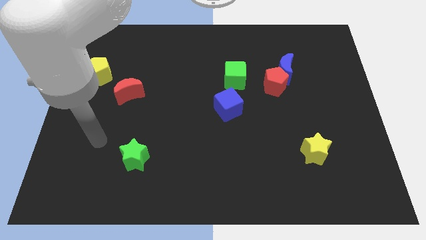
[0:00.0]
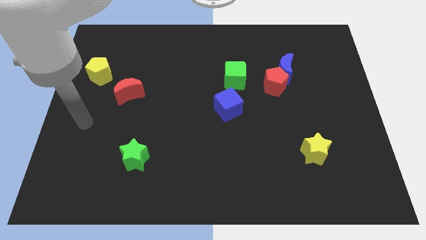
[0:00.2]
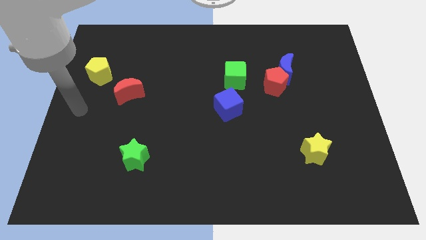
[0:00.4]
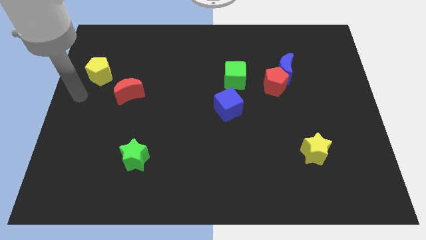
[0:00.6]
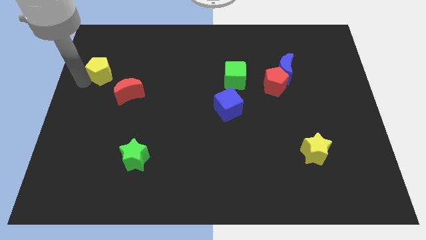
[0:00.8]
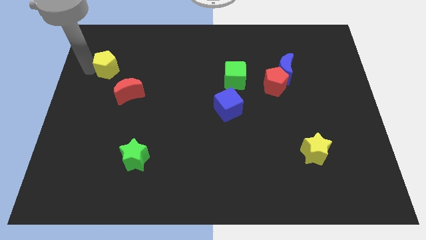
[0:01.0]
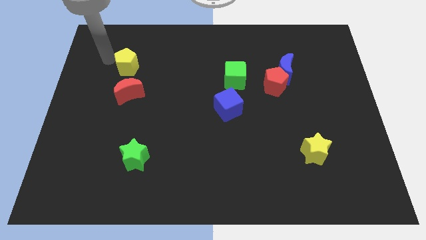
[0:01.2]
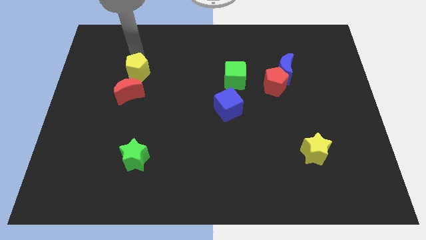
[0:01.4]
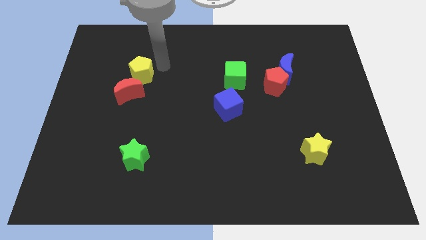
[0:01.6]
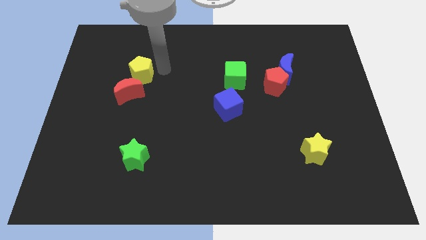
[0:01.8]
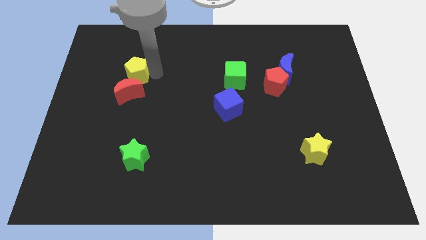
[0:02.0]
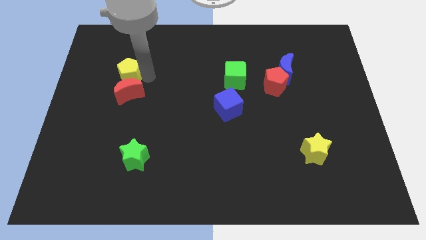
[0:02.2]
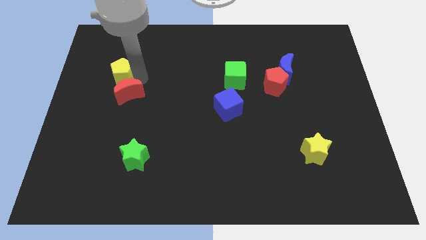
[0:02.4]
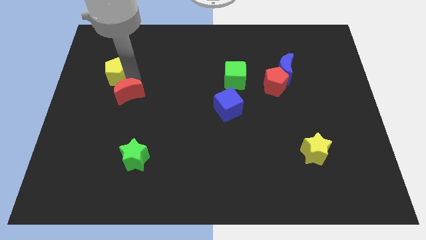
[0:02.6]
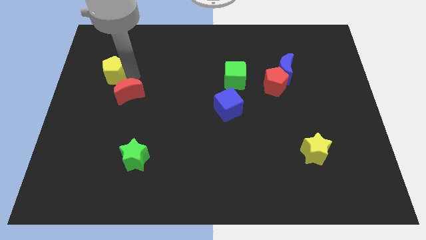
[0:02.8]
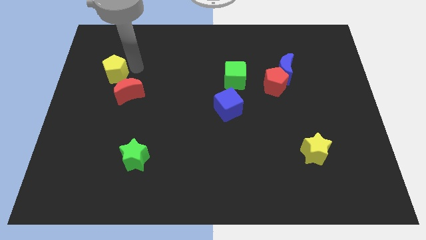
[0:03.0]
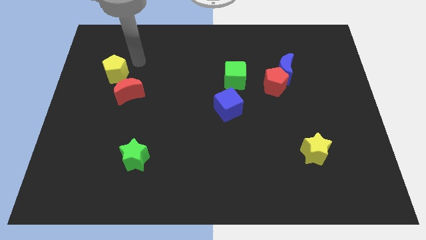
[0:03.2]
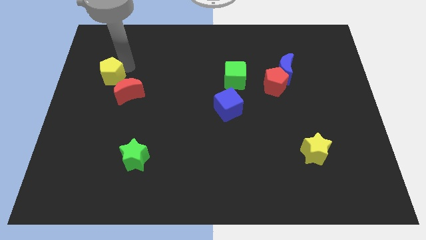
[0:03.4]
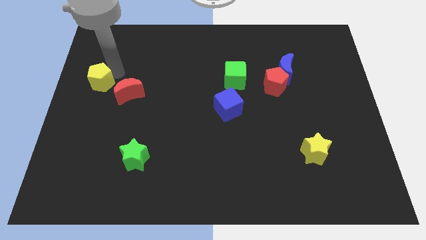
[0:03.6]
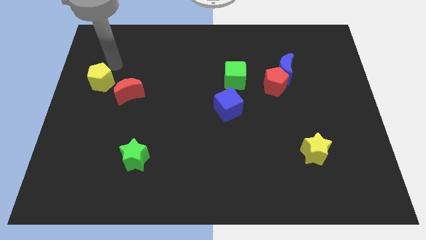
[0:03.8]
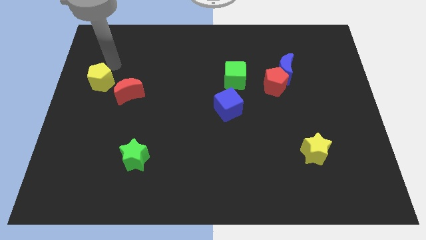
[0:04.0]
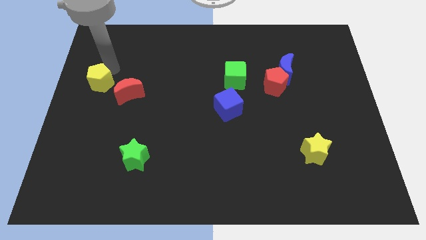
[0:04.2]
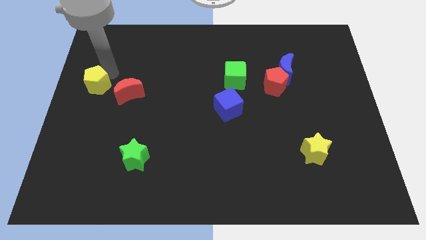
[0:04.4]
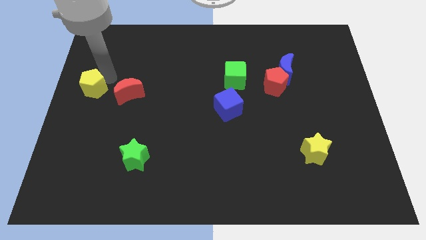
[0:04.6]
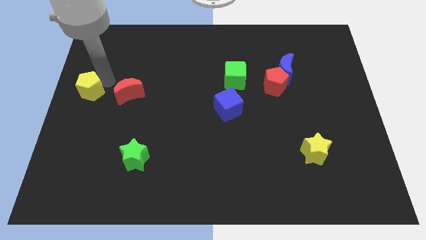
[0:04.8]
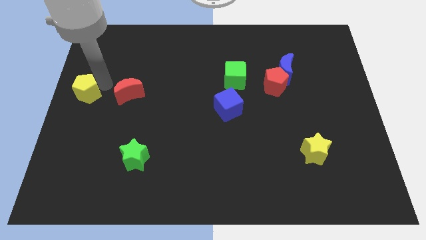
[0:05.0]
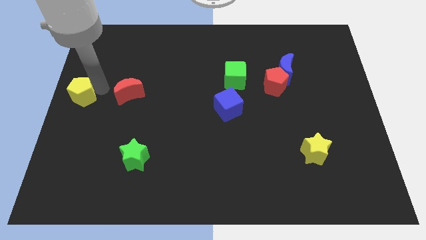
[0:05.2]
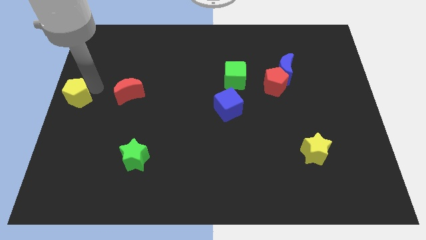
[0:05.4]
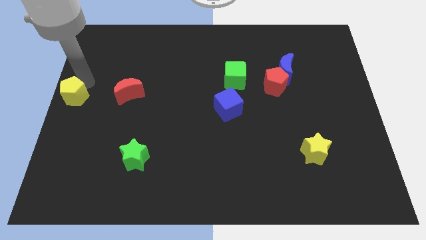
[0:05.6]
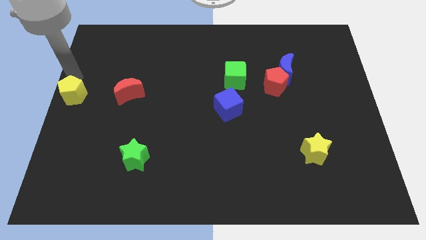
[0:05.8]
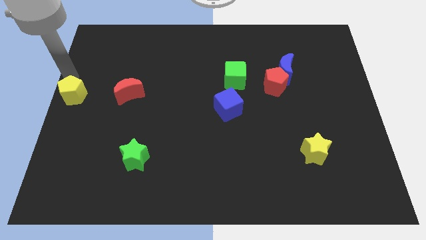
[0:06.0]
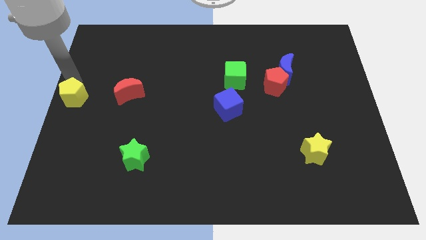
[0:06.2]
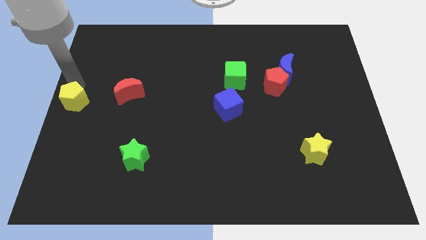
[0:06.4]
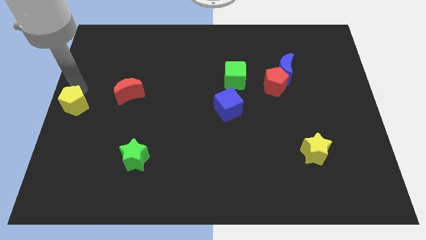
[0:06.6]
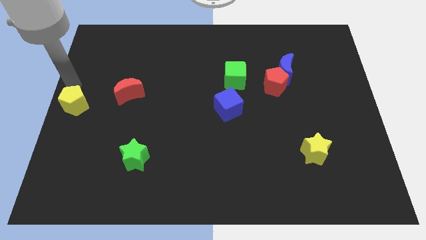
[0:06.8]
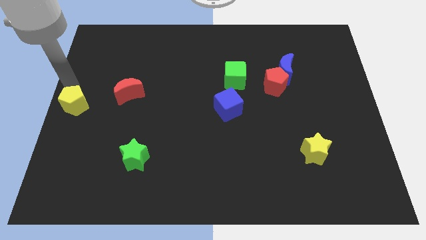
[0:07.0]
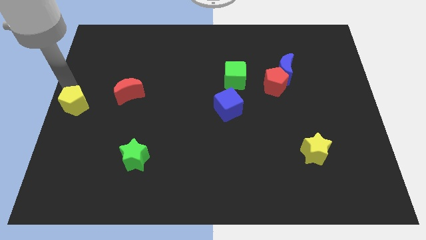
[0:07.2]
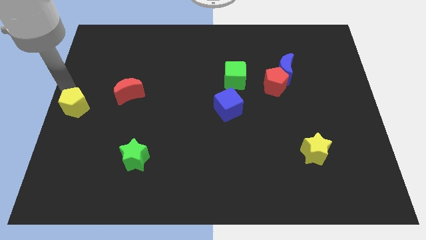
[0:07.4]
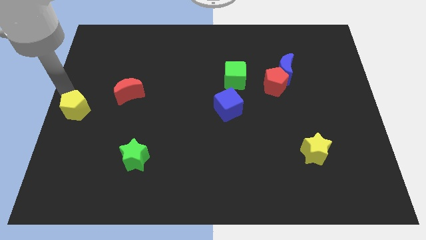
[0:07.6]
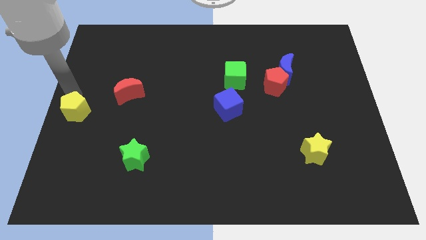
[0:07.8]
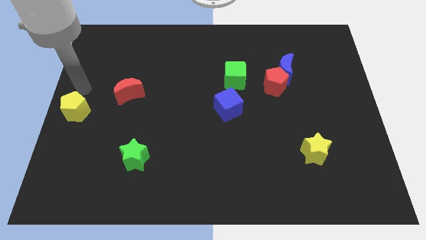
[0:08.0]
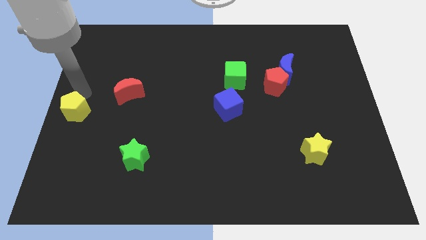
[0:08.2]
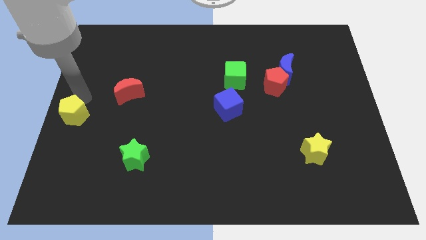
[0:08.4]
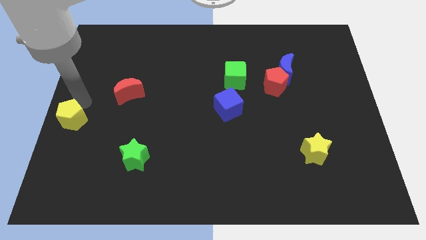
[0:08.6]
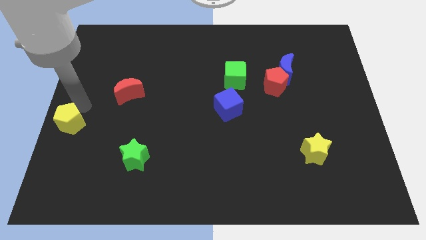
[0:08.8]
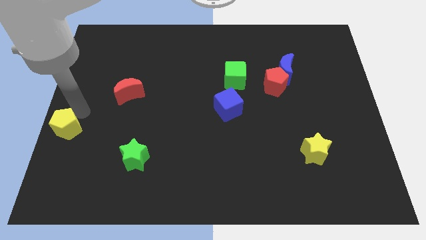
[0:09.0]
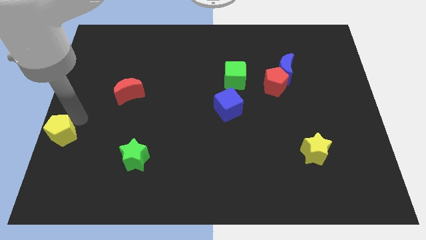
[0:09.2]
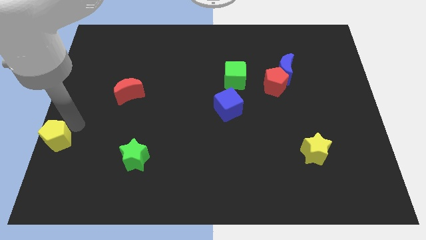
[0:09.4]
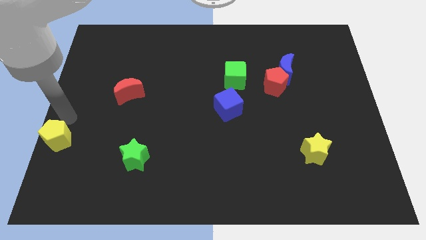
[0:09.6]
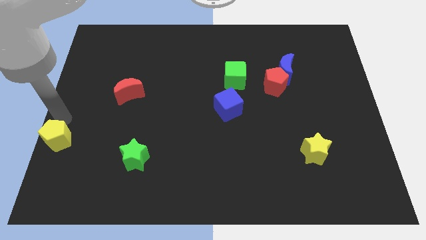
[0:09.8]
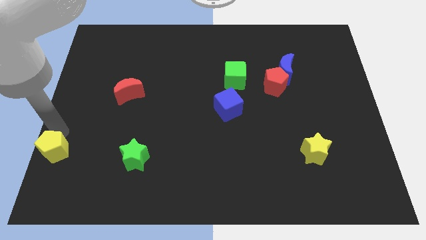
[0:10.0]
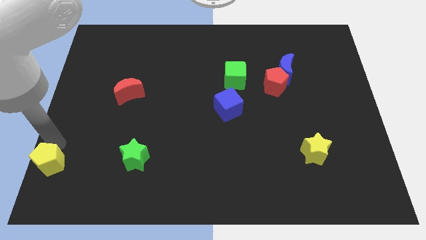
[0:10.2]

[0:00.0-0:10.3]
move the yellow pentagon to the bottom left of the board

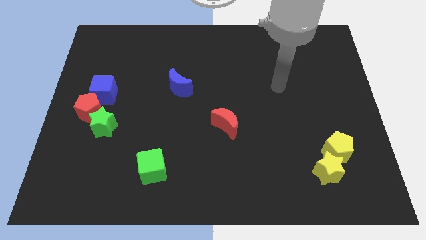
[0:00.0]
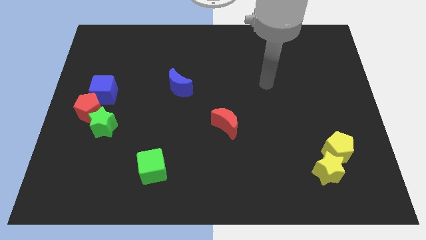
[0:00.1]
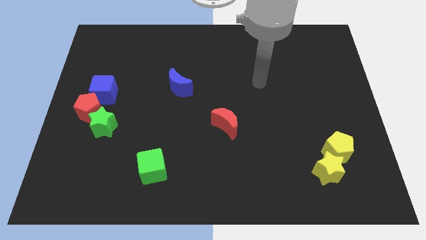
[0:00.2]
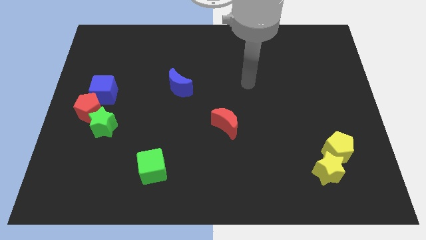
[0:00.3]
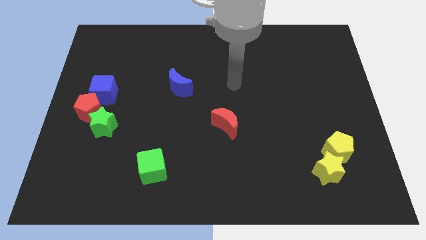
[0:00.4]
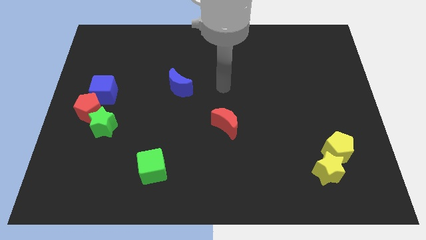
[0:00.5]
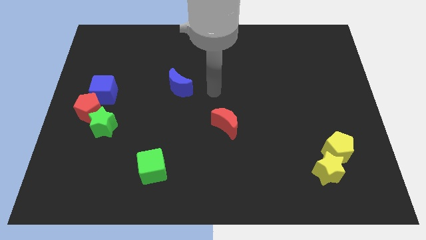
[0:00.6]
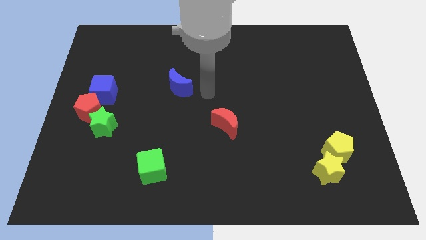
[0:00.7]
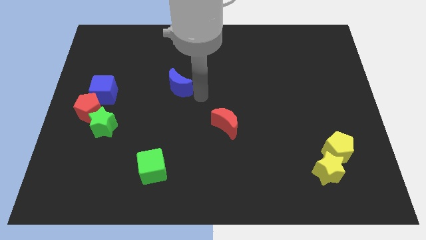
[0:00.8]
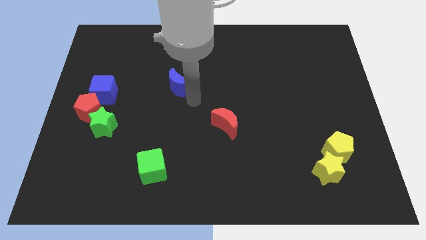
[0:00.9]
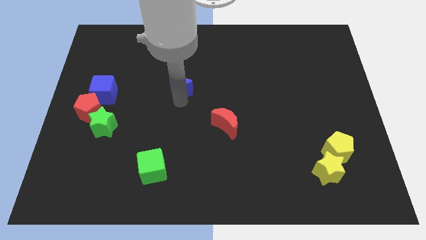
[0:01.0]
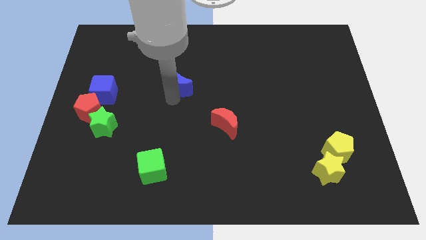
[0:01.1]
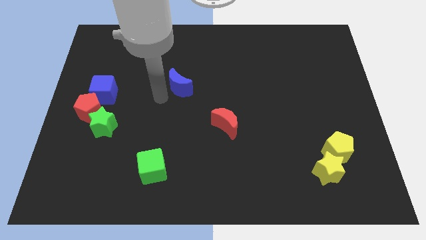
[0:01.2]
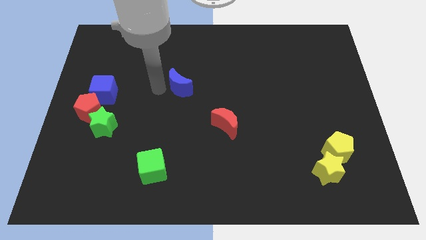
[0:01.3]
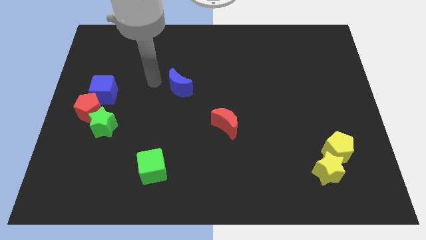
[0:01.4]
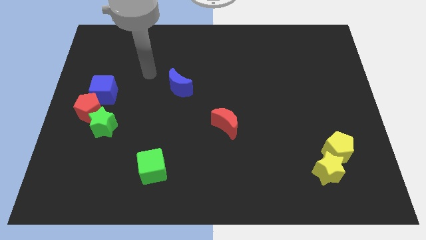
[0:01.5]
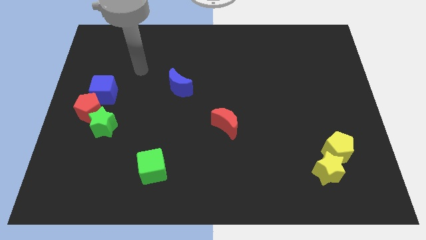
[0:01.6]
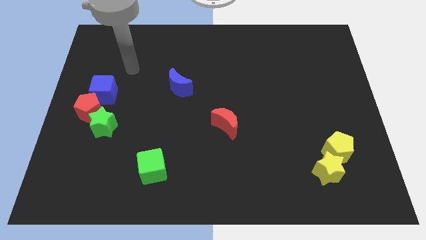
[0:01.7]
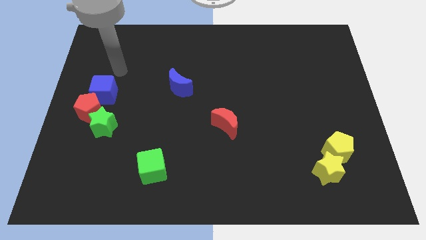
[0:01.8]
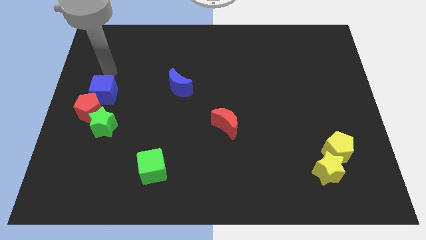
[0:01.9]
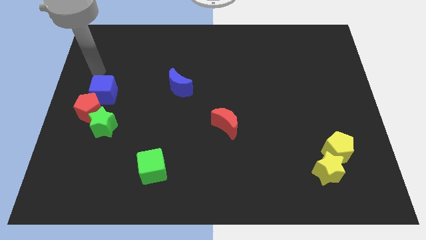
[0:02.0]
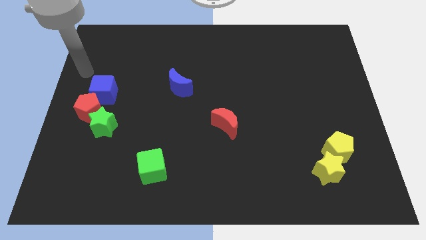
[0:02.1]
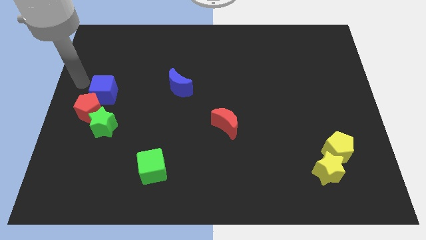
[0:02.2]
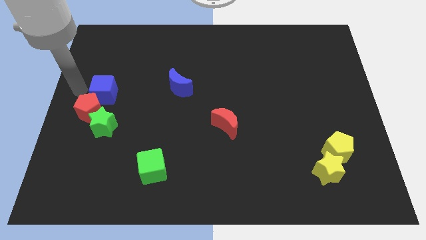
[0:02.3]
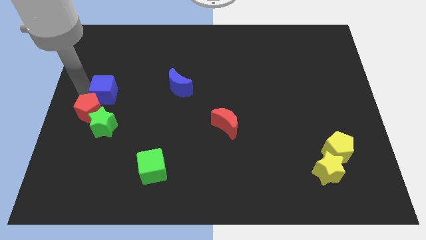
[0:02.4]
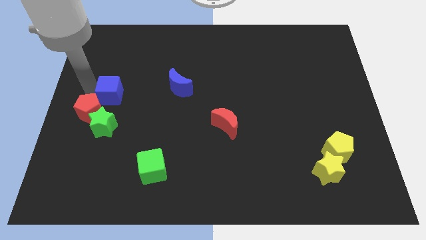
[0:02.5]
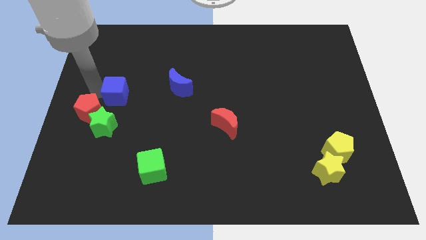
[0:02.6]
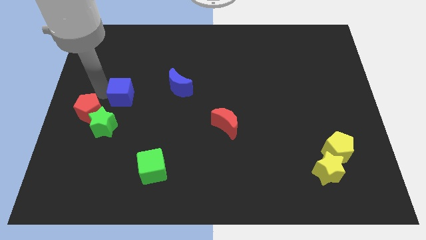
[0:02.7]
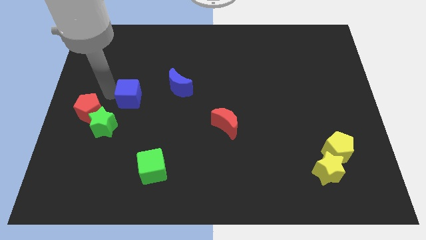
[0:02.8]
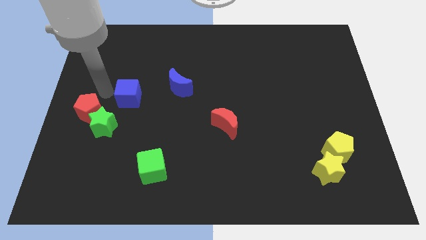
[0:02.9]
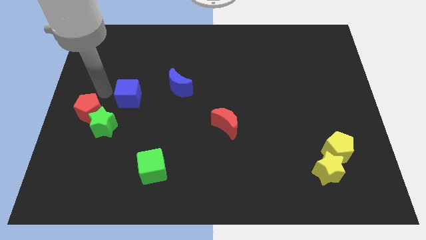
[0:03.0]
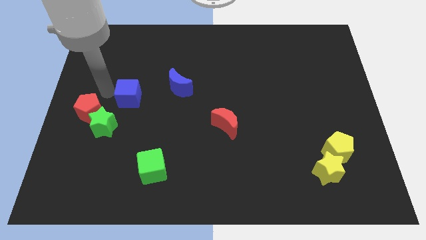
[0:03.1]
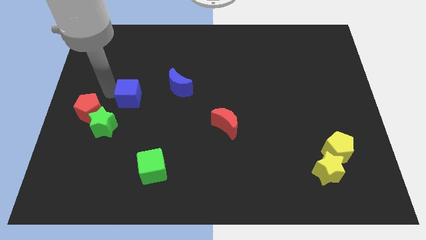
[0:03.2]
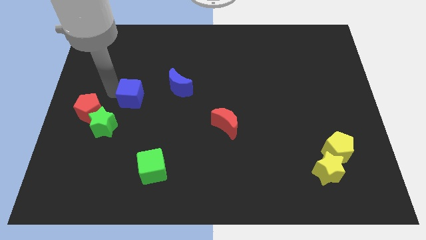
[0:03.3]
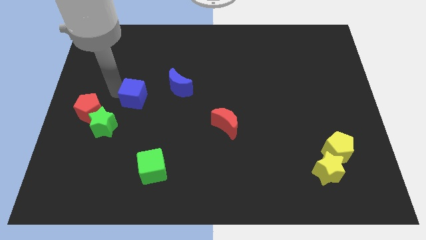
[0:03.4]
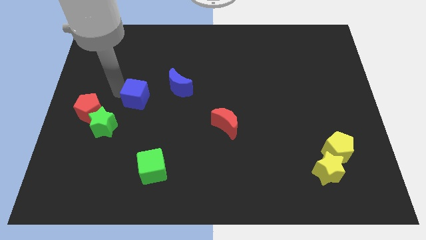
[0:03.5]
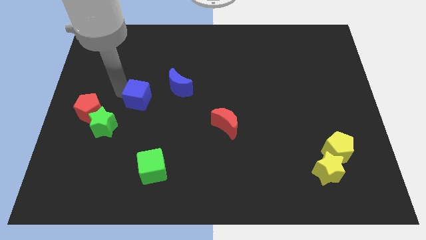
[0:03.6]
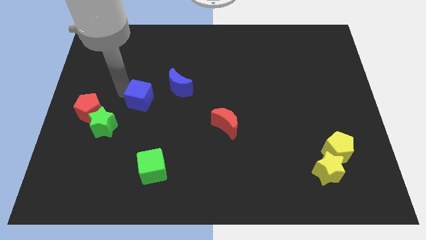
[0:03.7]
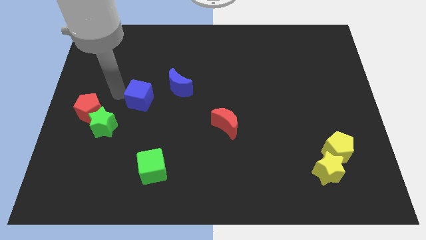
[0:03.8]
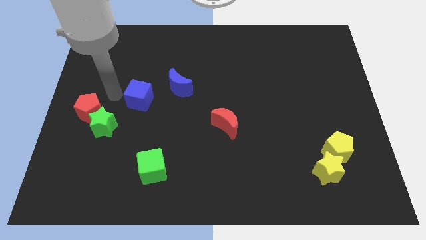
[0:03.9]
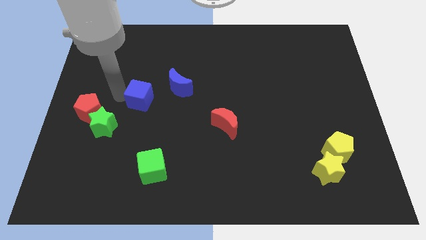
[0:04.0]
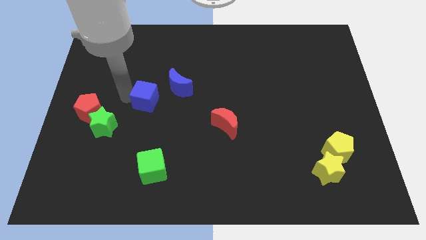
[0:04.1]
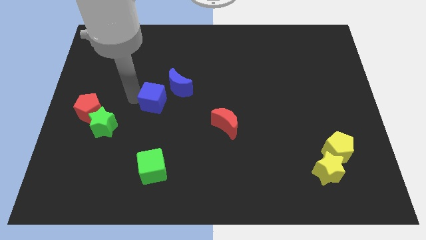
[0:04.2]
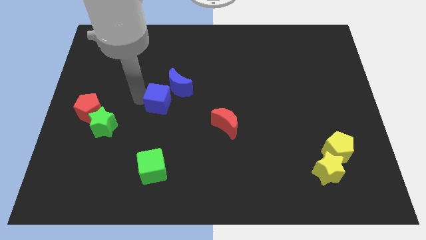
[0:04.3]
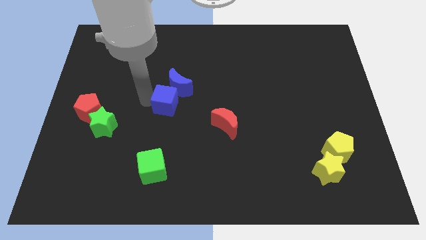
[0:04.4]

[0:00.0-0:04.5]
slide the blue cube to the middle of the board
